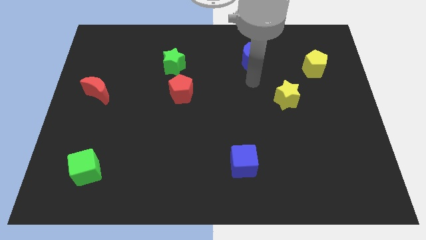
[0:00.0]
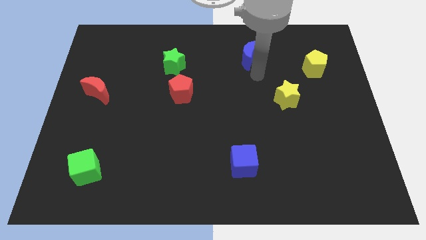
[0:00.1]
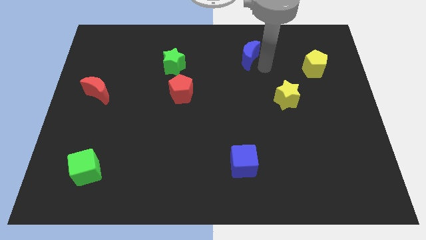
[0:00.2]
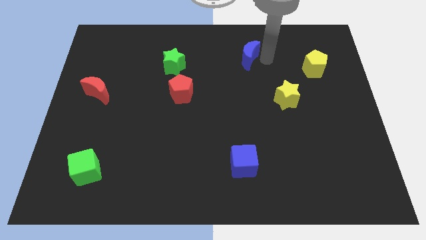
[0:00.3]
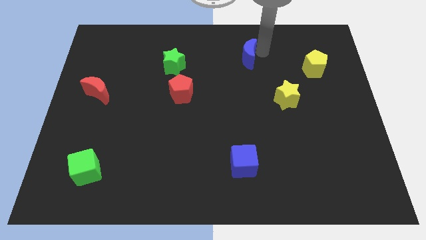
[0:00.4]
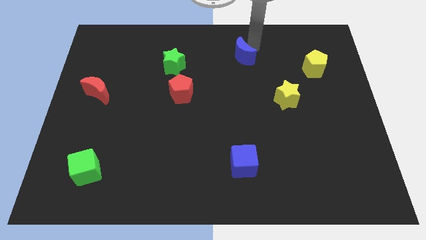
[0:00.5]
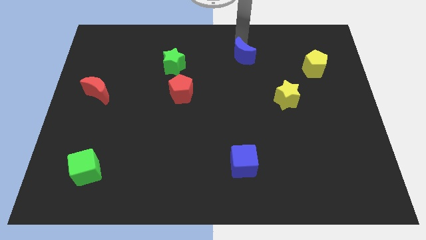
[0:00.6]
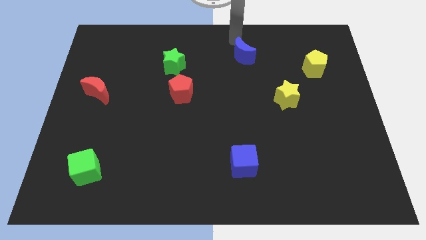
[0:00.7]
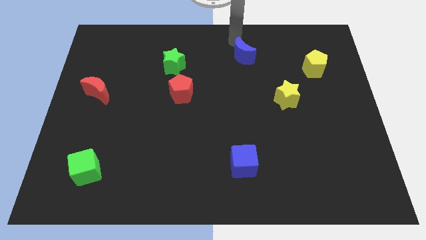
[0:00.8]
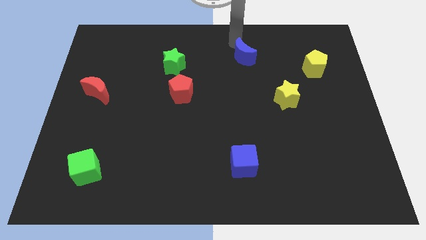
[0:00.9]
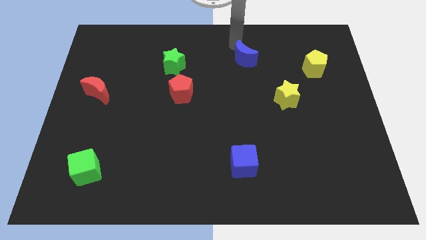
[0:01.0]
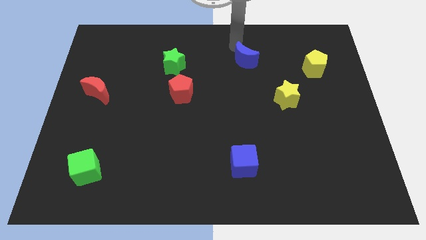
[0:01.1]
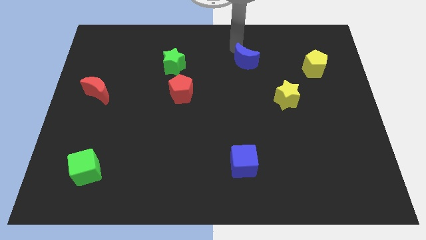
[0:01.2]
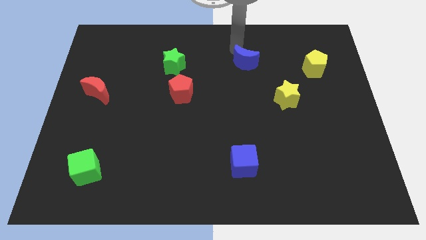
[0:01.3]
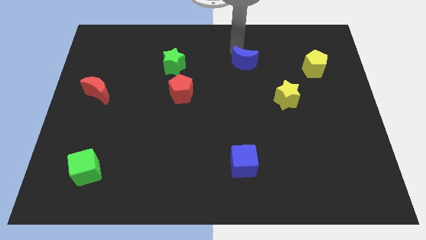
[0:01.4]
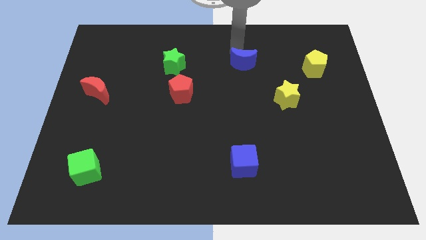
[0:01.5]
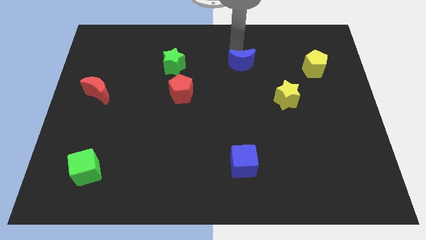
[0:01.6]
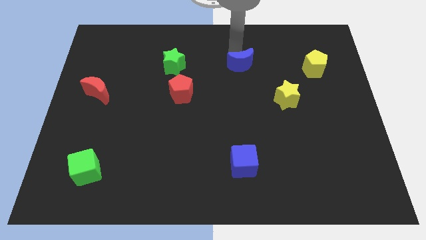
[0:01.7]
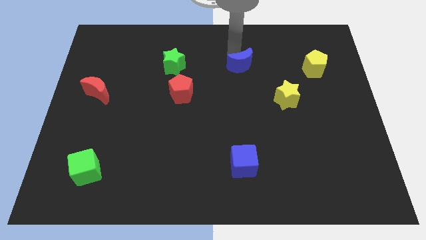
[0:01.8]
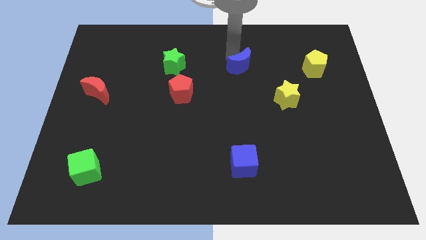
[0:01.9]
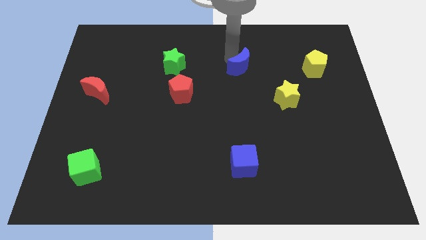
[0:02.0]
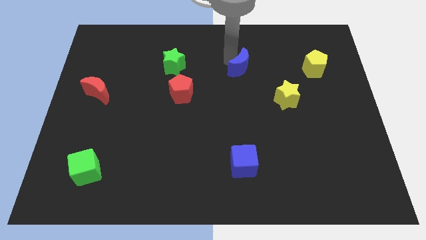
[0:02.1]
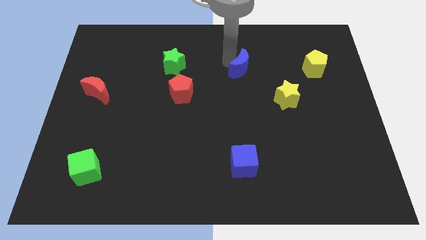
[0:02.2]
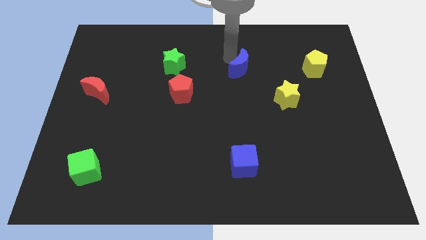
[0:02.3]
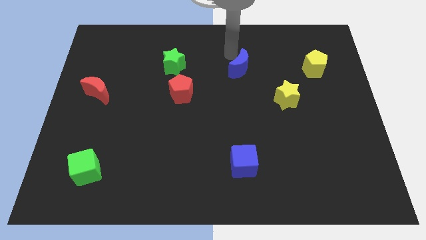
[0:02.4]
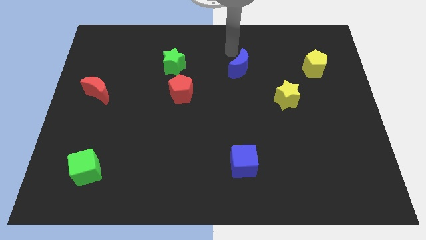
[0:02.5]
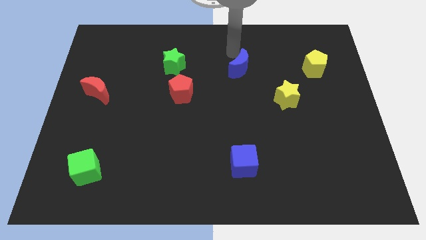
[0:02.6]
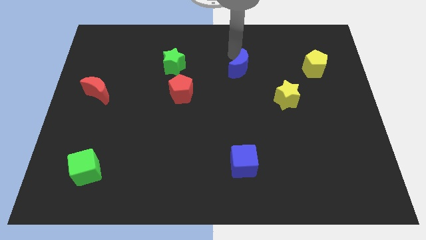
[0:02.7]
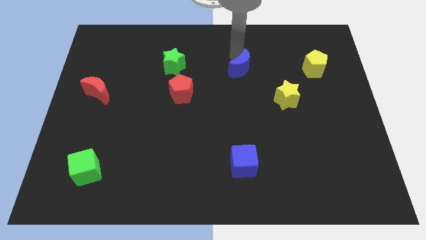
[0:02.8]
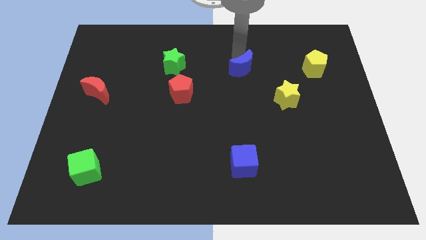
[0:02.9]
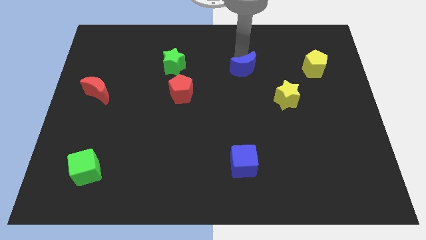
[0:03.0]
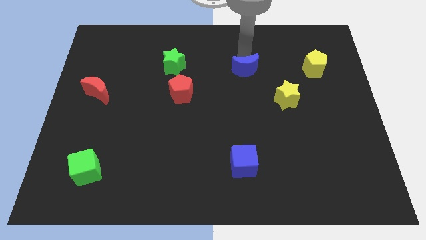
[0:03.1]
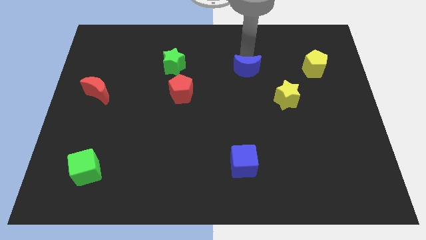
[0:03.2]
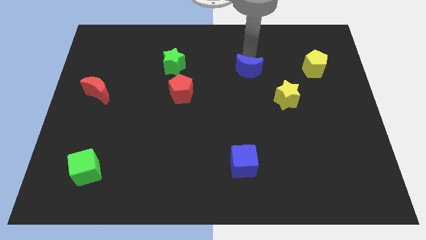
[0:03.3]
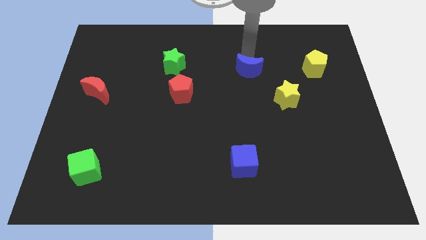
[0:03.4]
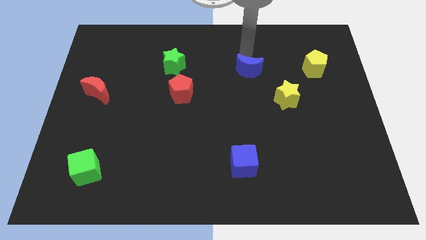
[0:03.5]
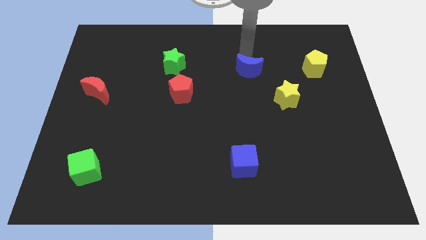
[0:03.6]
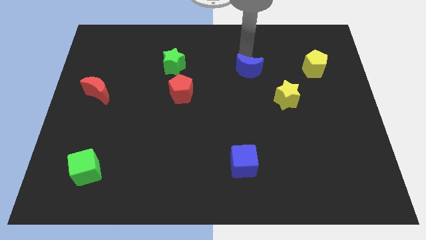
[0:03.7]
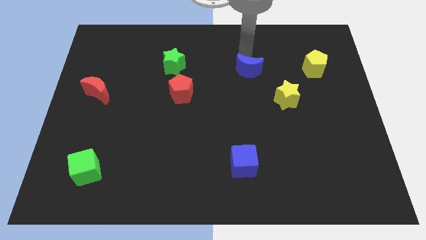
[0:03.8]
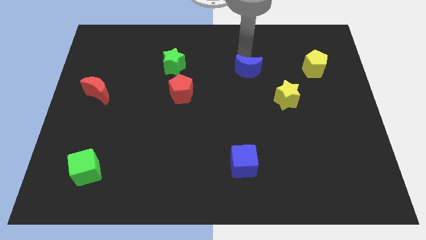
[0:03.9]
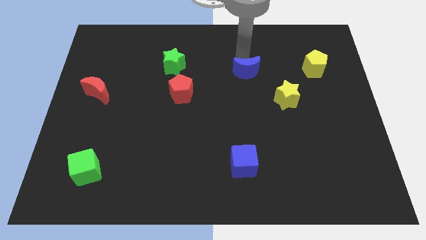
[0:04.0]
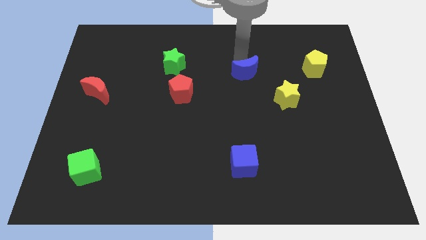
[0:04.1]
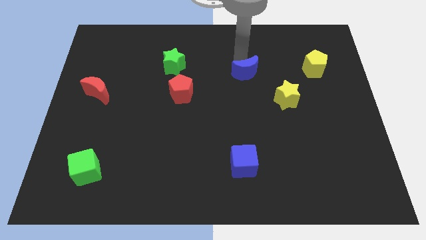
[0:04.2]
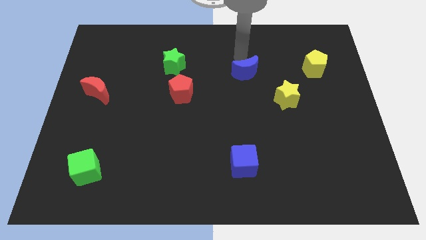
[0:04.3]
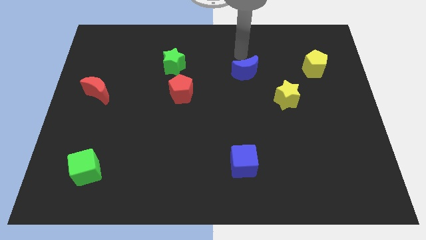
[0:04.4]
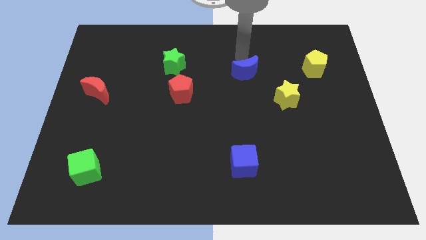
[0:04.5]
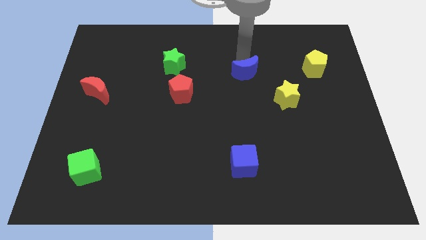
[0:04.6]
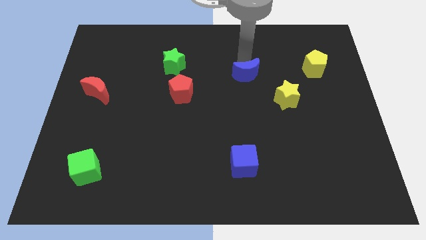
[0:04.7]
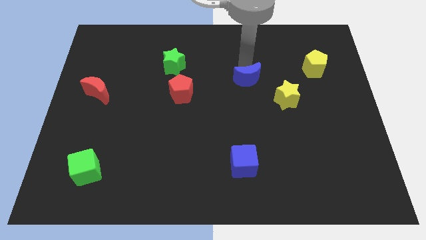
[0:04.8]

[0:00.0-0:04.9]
move the blue moon down a little bit

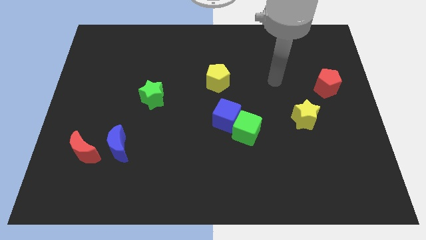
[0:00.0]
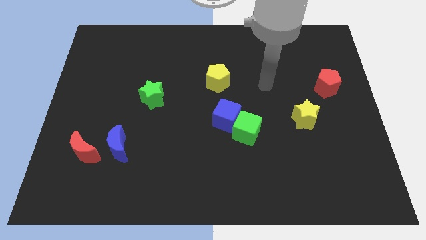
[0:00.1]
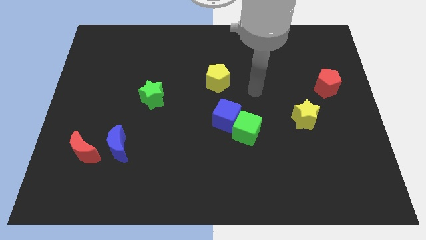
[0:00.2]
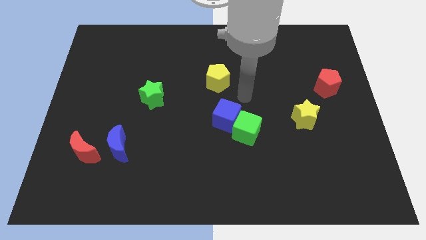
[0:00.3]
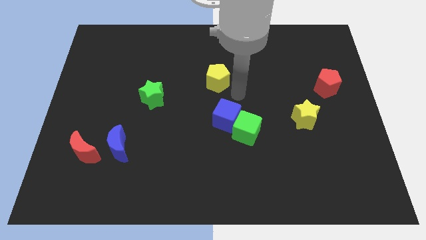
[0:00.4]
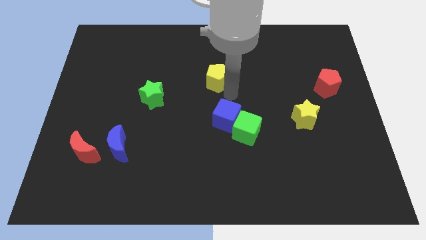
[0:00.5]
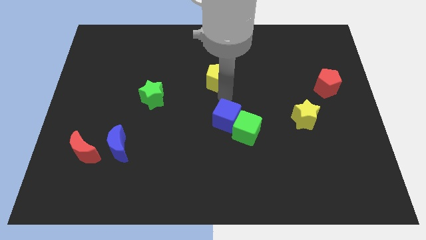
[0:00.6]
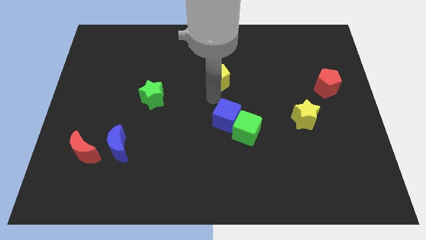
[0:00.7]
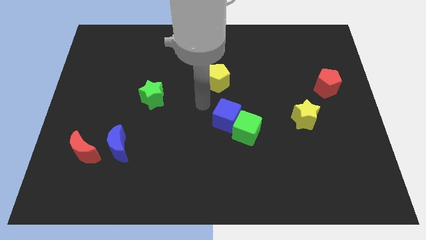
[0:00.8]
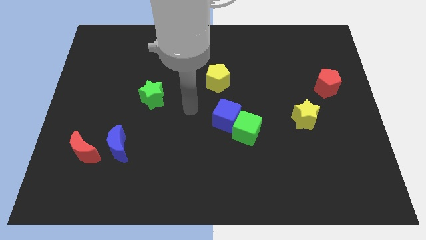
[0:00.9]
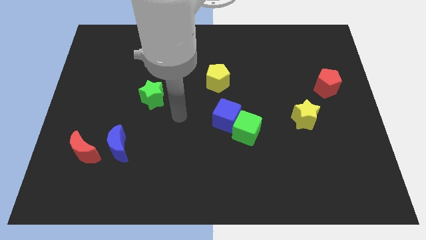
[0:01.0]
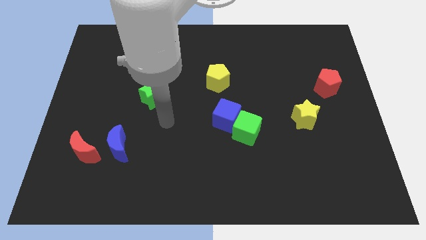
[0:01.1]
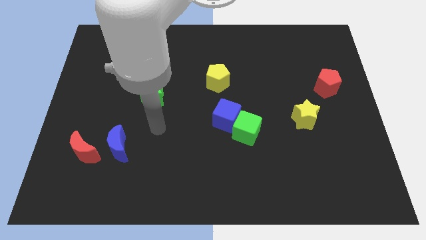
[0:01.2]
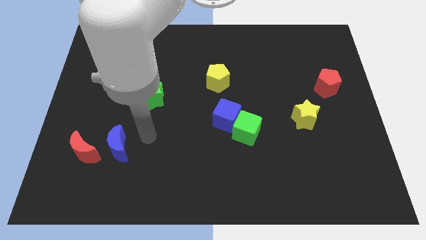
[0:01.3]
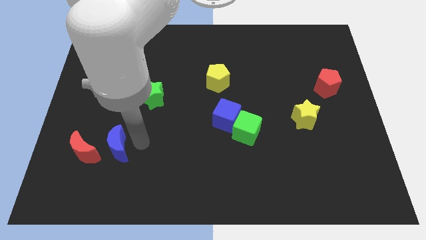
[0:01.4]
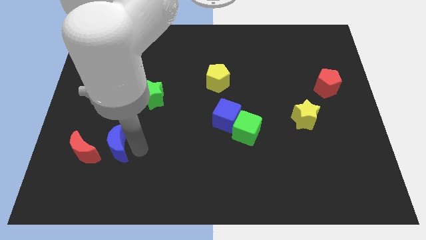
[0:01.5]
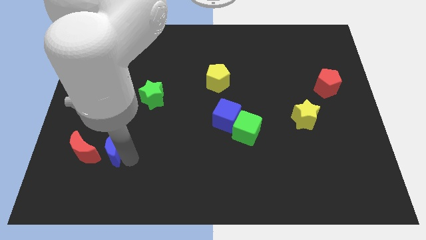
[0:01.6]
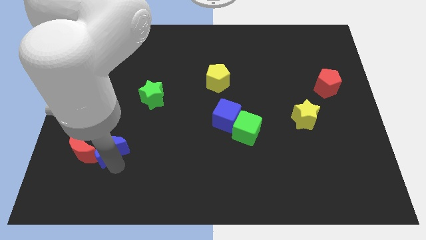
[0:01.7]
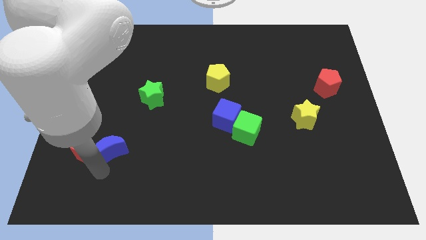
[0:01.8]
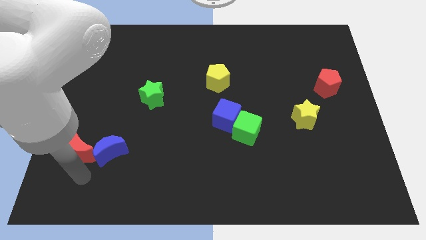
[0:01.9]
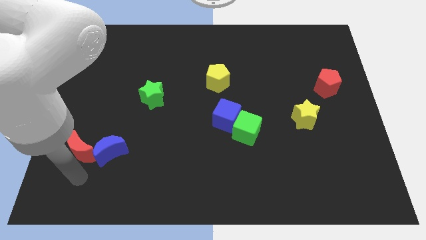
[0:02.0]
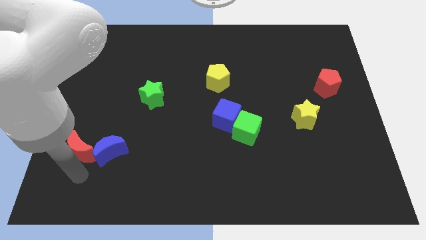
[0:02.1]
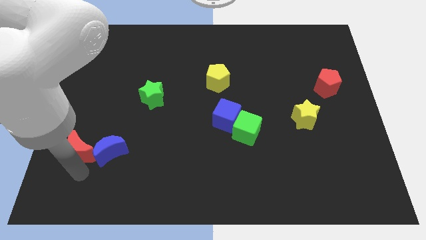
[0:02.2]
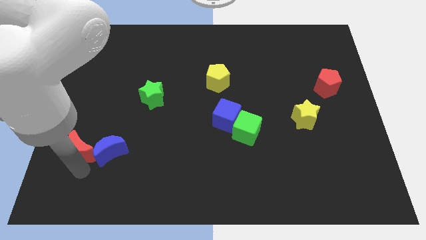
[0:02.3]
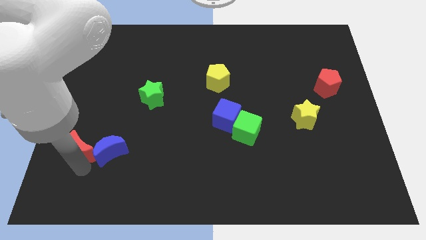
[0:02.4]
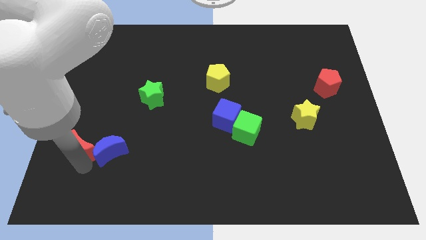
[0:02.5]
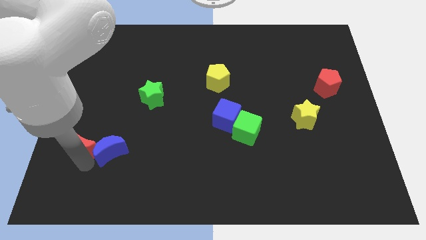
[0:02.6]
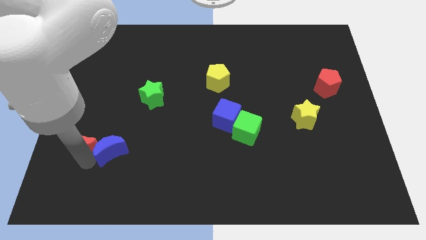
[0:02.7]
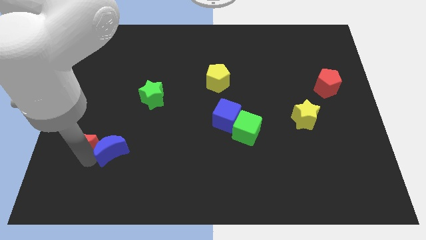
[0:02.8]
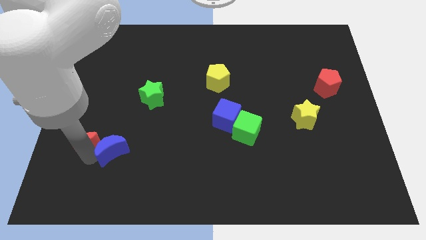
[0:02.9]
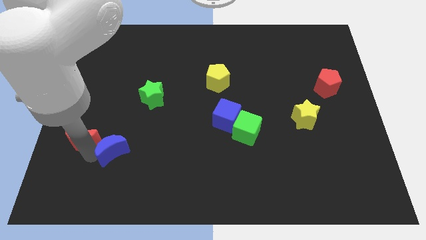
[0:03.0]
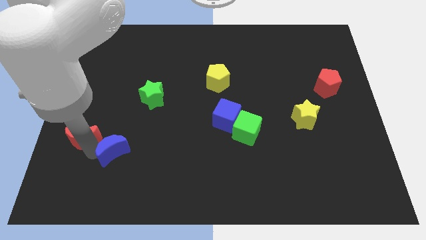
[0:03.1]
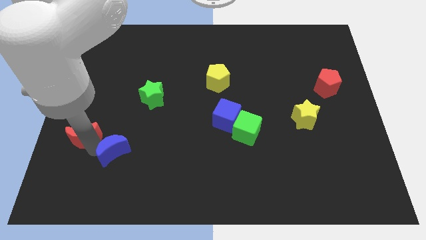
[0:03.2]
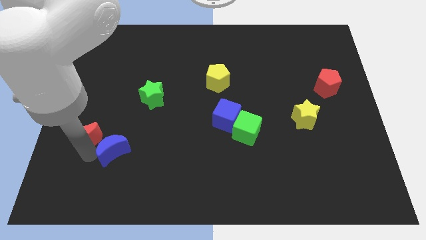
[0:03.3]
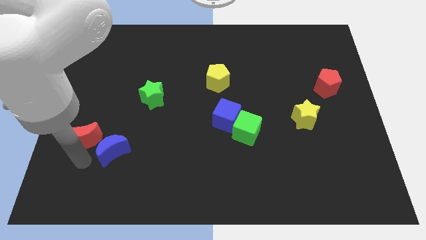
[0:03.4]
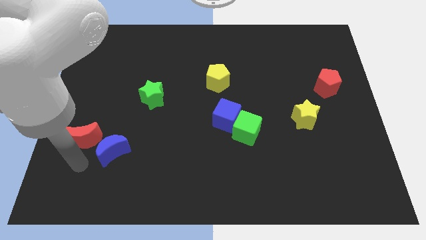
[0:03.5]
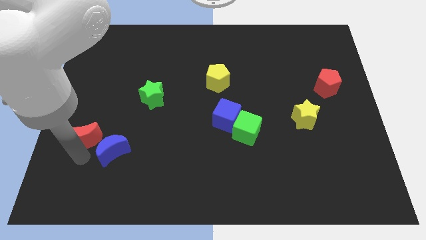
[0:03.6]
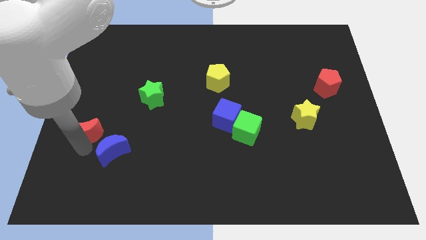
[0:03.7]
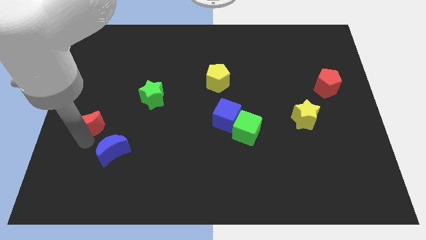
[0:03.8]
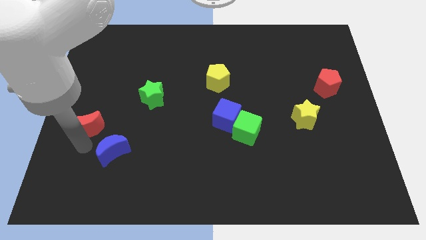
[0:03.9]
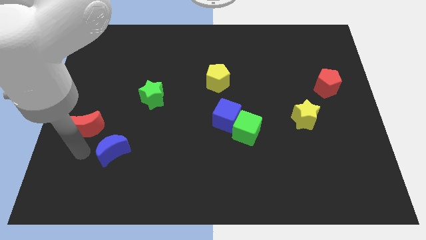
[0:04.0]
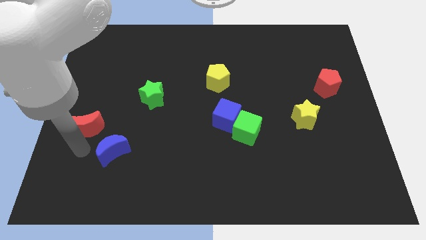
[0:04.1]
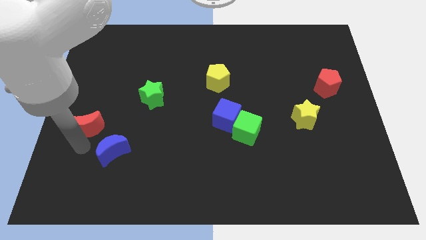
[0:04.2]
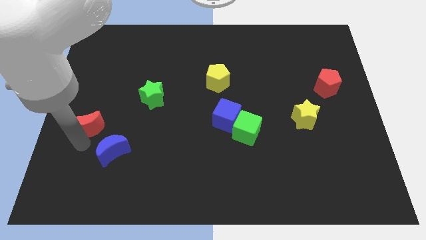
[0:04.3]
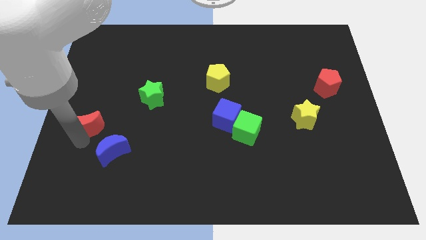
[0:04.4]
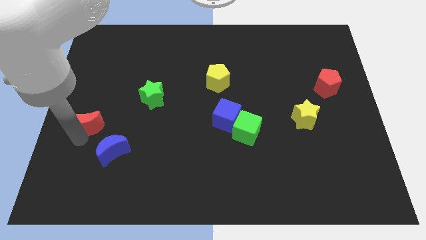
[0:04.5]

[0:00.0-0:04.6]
push the red moon somewhat upwards
